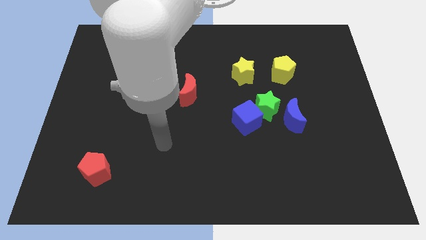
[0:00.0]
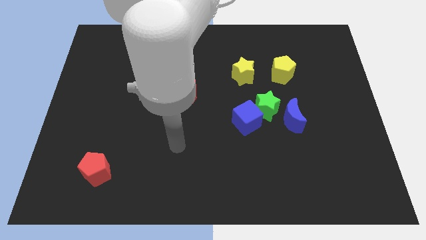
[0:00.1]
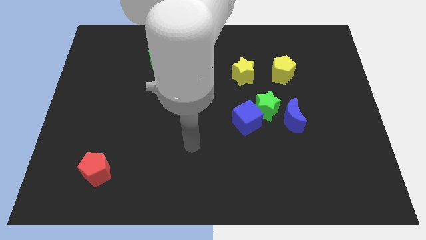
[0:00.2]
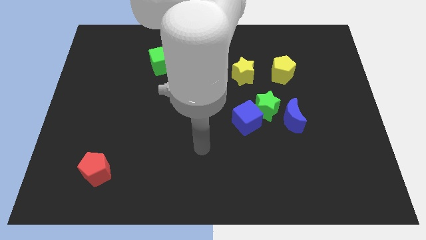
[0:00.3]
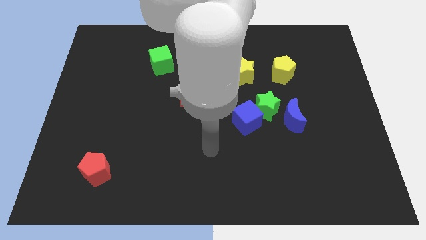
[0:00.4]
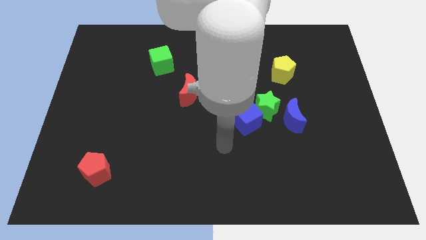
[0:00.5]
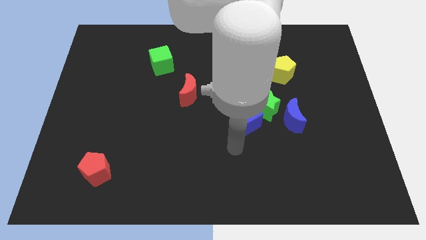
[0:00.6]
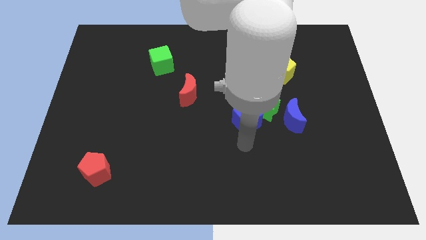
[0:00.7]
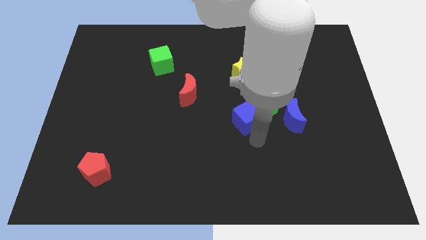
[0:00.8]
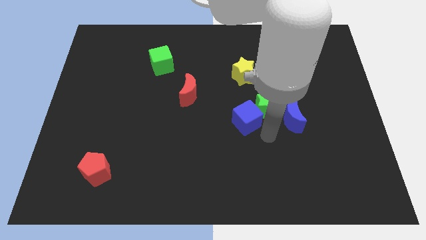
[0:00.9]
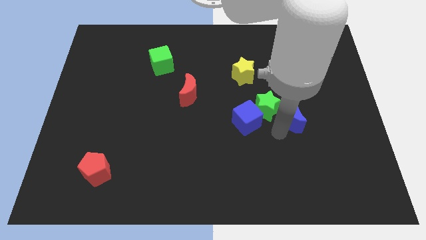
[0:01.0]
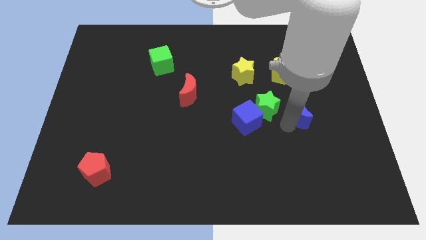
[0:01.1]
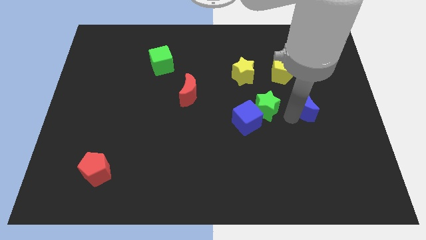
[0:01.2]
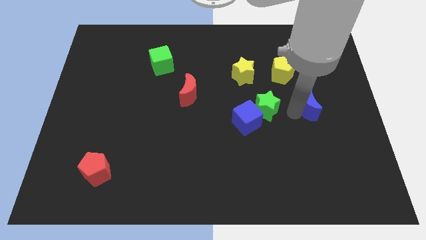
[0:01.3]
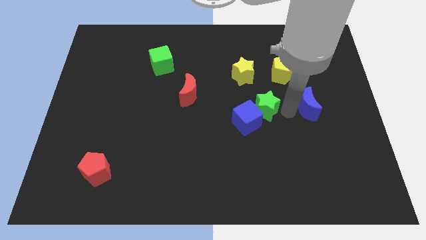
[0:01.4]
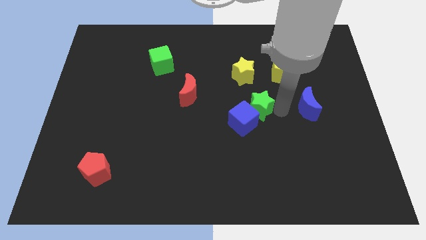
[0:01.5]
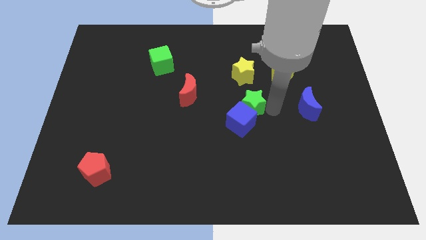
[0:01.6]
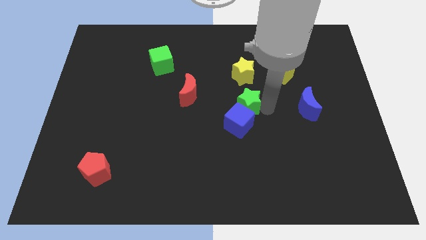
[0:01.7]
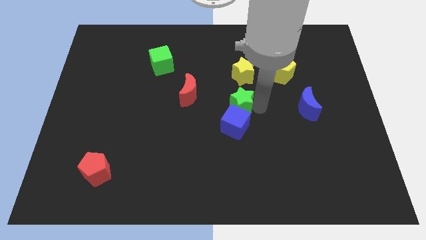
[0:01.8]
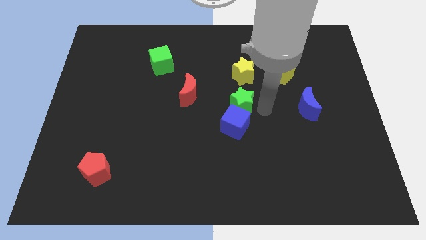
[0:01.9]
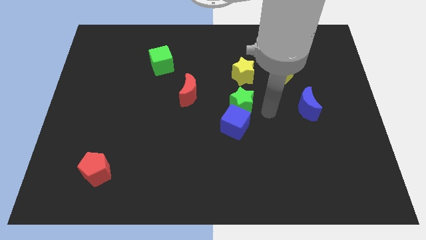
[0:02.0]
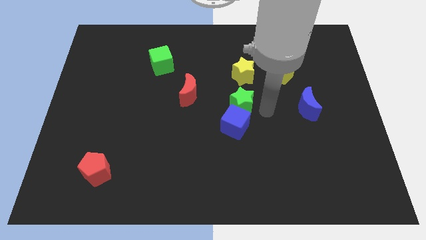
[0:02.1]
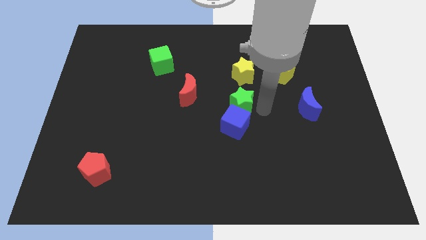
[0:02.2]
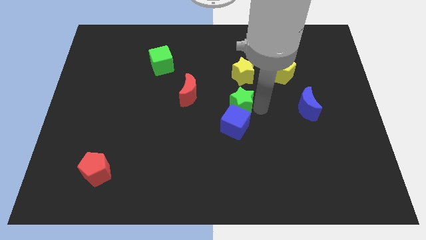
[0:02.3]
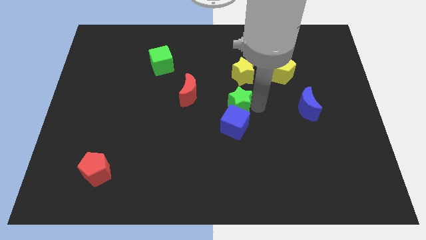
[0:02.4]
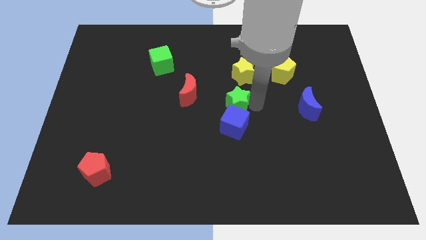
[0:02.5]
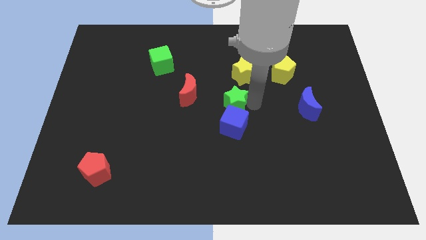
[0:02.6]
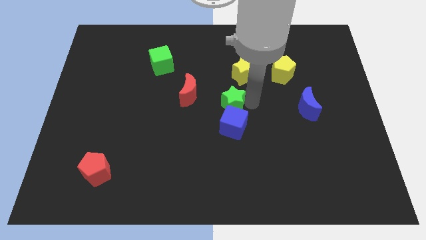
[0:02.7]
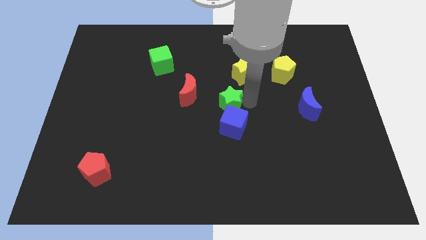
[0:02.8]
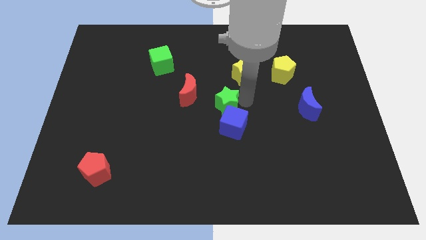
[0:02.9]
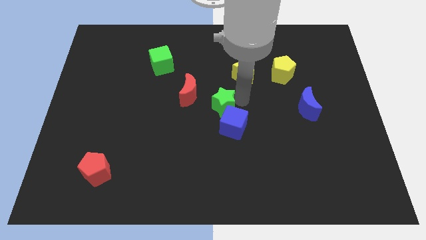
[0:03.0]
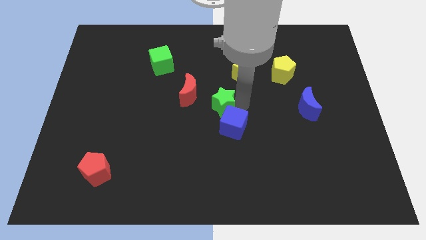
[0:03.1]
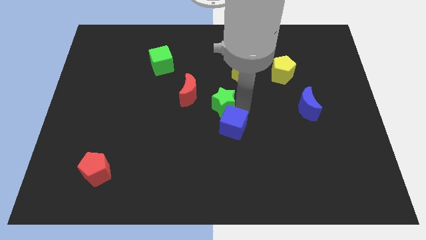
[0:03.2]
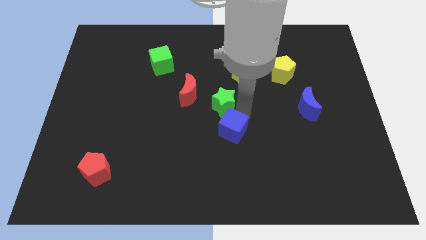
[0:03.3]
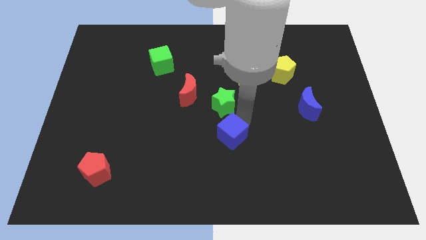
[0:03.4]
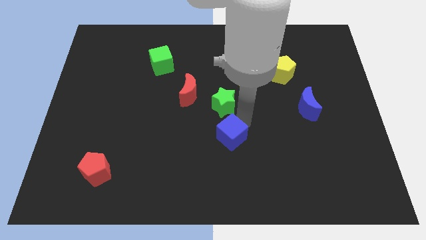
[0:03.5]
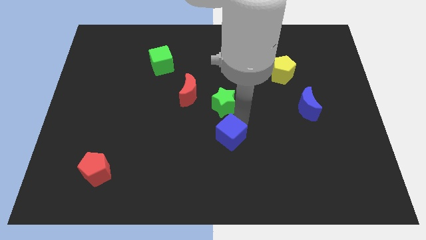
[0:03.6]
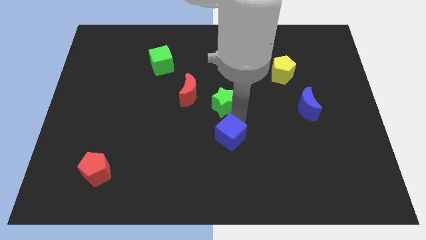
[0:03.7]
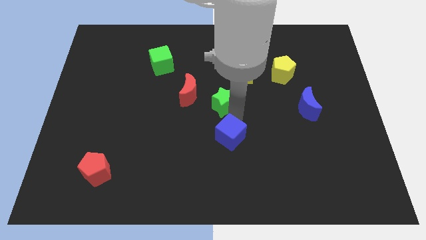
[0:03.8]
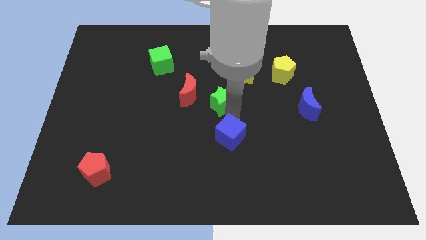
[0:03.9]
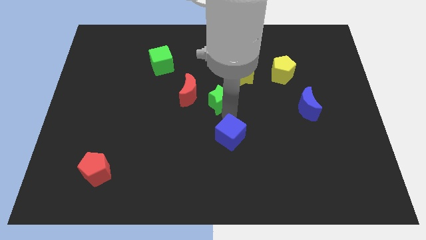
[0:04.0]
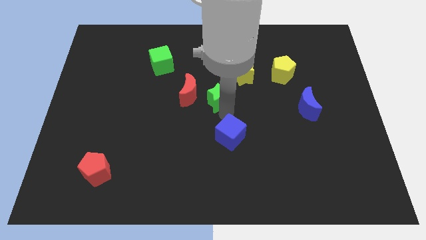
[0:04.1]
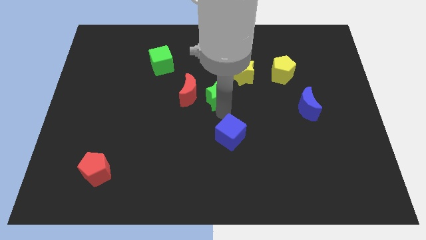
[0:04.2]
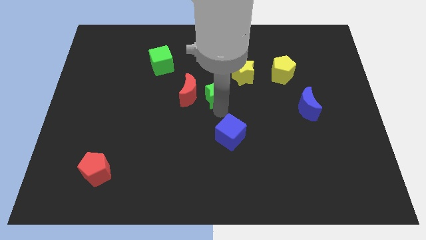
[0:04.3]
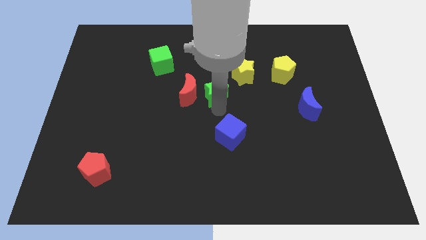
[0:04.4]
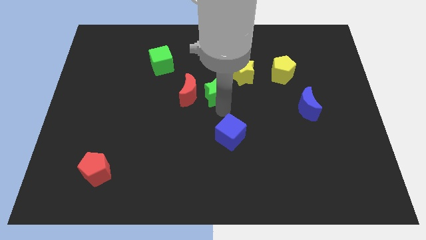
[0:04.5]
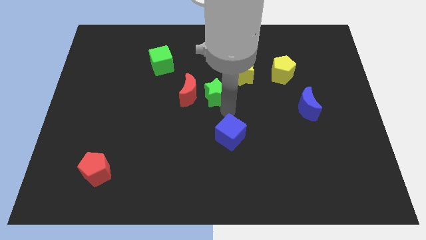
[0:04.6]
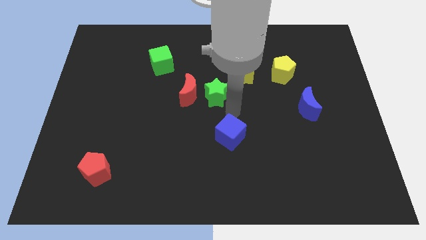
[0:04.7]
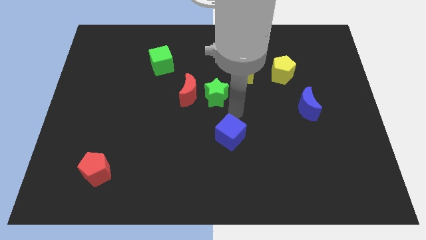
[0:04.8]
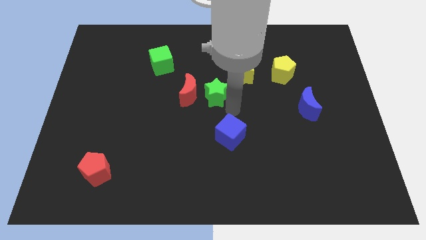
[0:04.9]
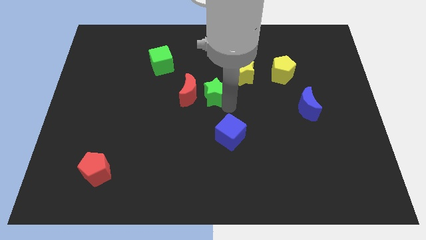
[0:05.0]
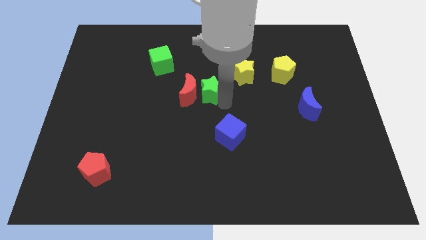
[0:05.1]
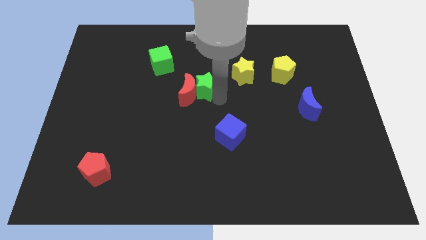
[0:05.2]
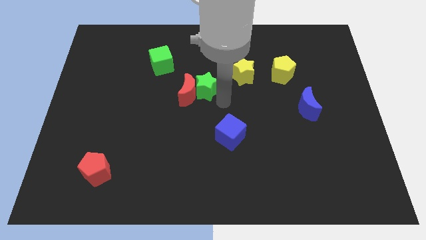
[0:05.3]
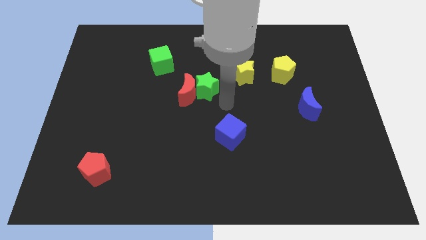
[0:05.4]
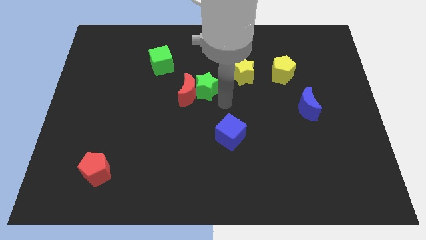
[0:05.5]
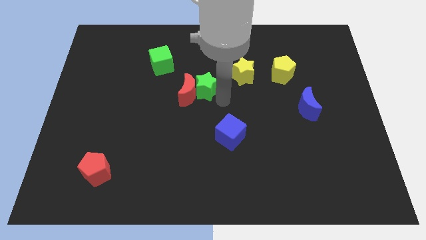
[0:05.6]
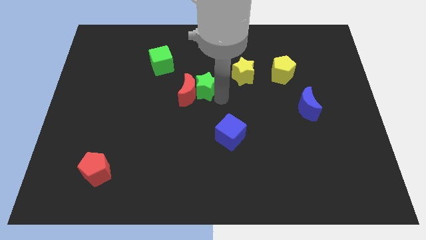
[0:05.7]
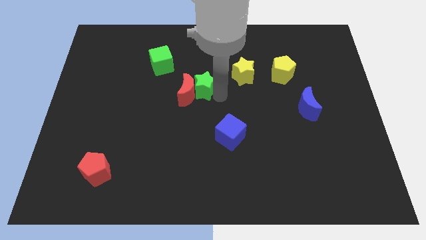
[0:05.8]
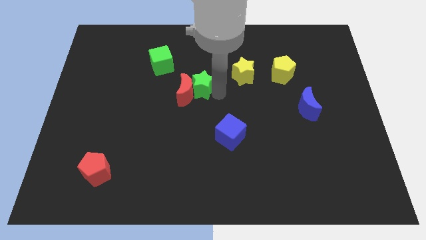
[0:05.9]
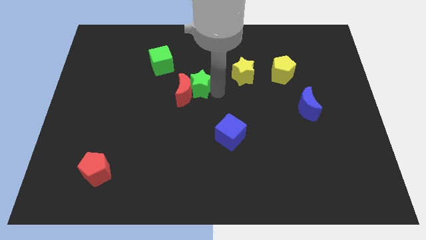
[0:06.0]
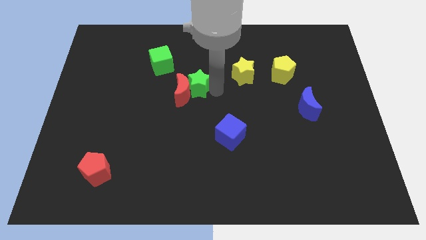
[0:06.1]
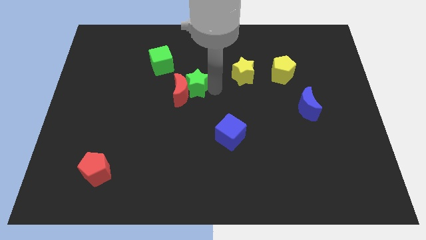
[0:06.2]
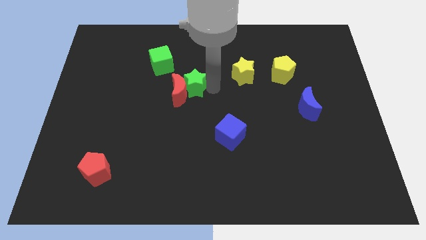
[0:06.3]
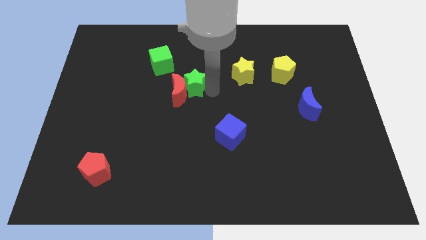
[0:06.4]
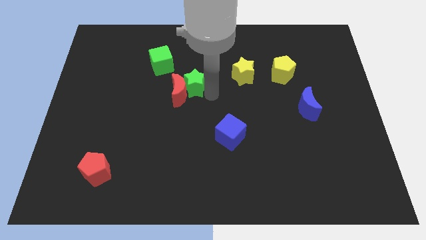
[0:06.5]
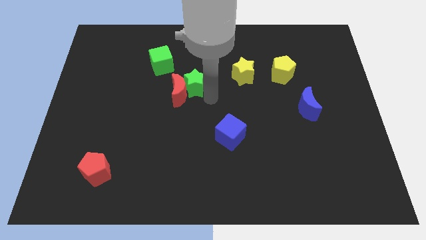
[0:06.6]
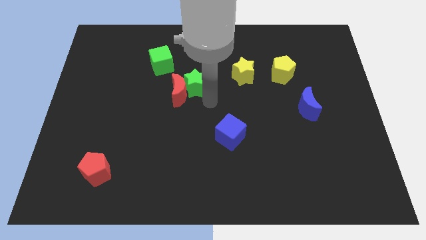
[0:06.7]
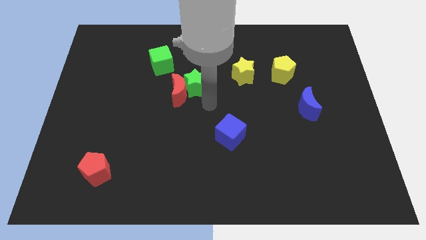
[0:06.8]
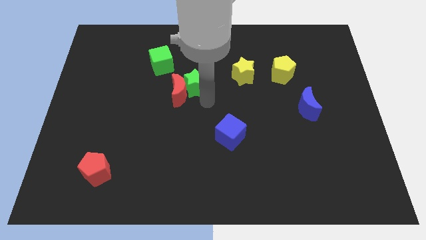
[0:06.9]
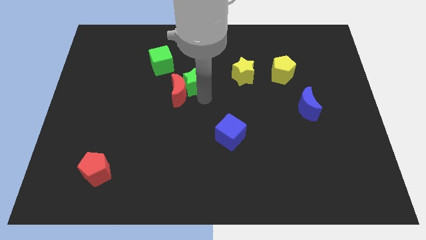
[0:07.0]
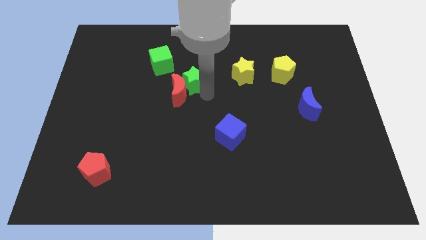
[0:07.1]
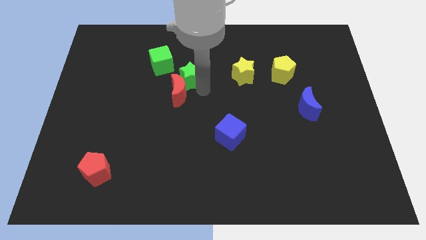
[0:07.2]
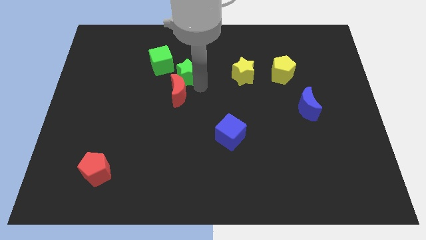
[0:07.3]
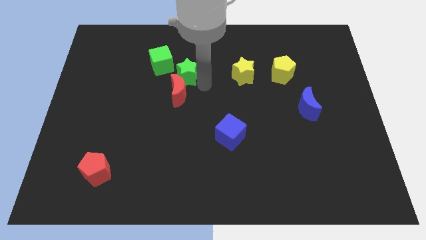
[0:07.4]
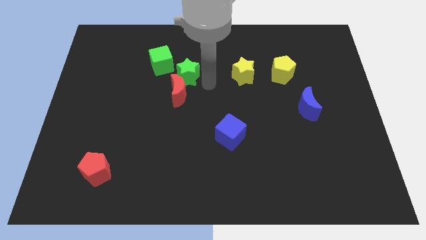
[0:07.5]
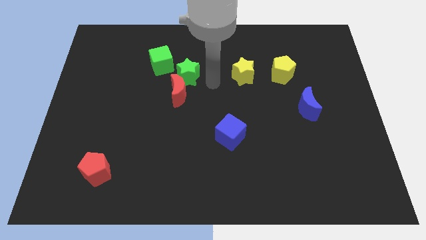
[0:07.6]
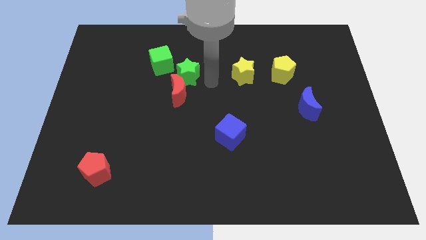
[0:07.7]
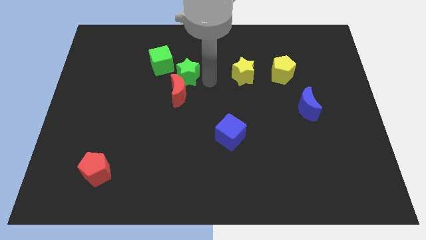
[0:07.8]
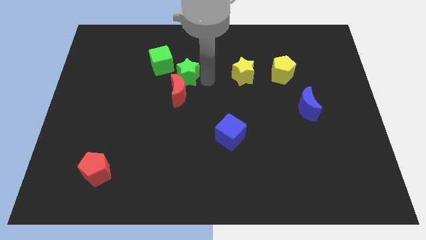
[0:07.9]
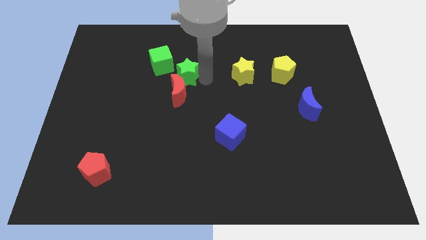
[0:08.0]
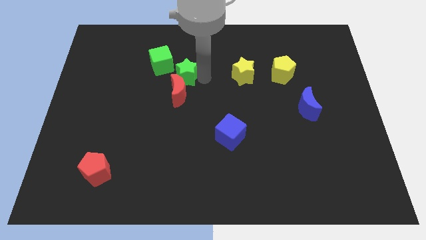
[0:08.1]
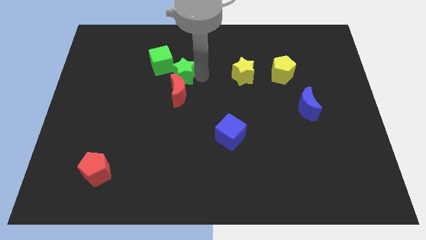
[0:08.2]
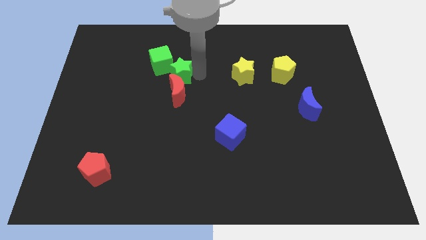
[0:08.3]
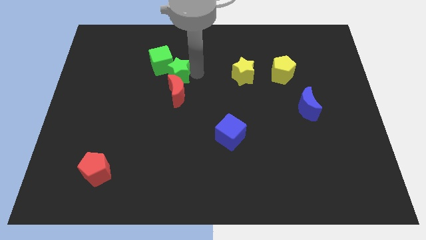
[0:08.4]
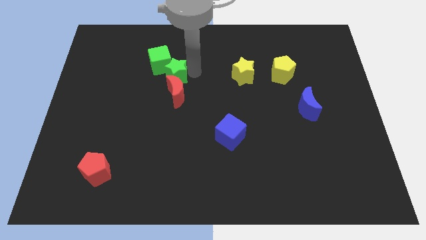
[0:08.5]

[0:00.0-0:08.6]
put the green star towards the green cube
